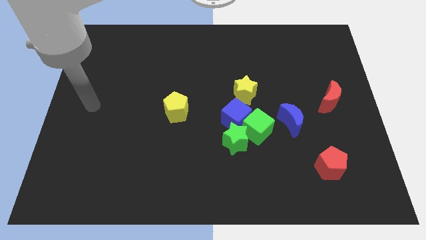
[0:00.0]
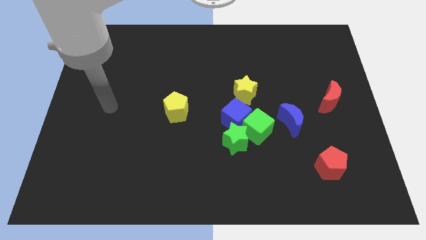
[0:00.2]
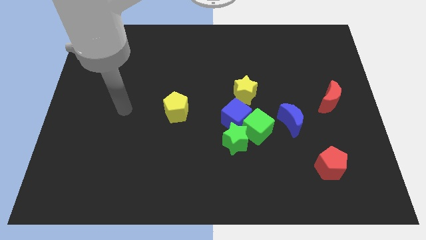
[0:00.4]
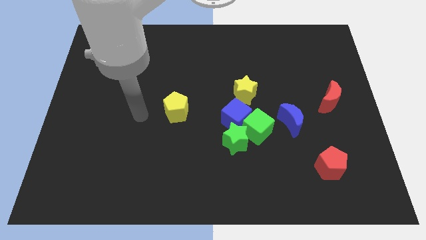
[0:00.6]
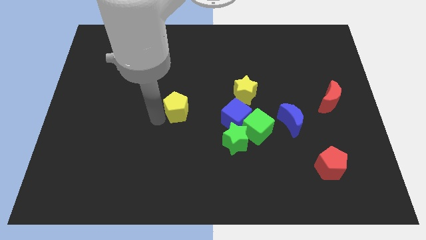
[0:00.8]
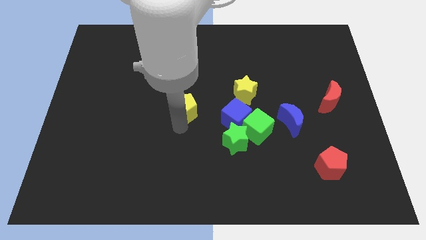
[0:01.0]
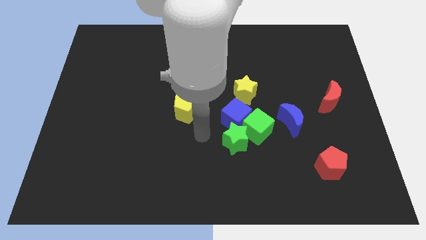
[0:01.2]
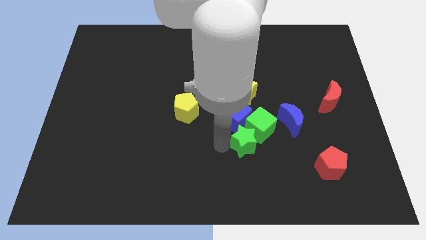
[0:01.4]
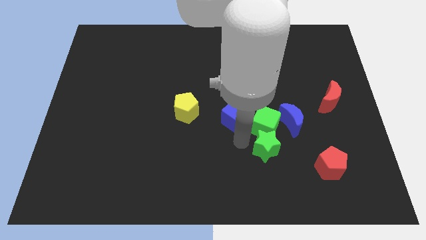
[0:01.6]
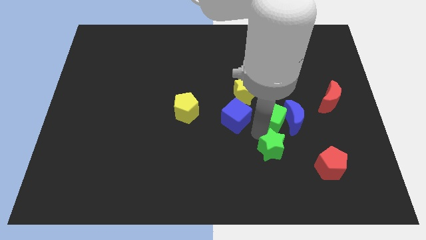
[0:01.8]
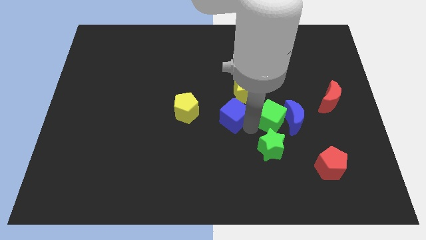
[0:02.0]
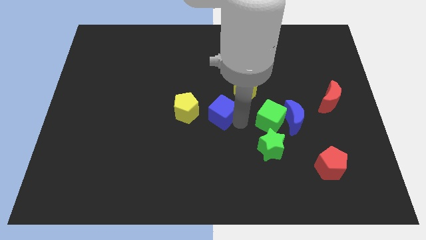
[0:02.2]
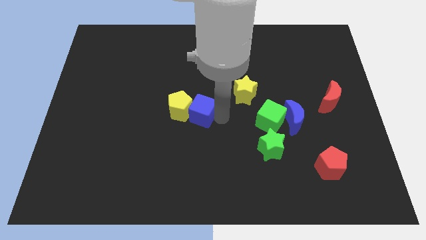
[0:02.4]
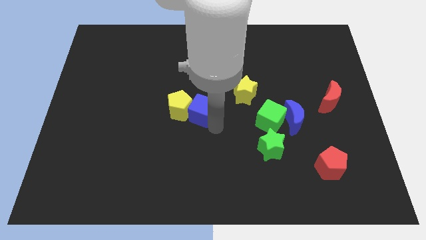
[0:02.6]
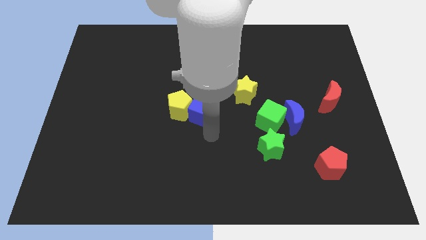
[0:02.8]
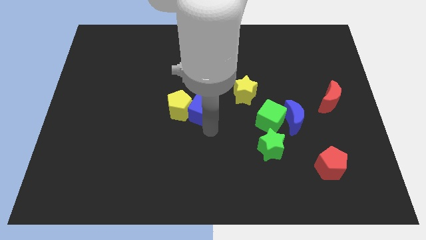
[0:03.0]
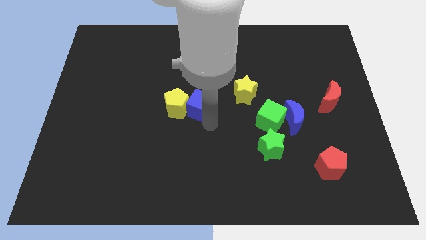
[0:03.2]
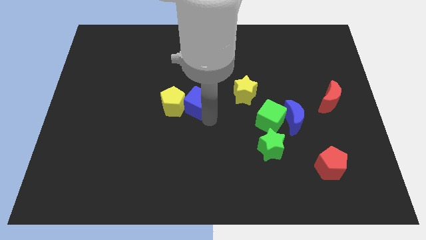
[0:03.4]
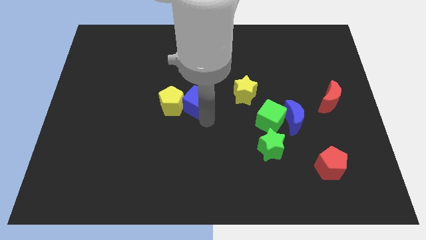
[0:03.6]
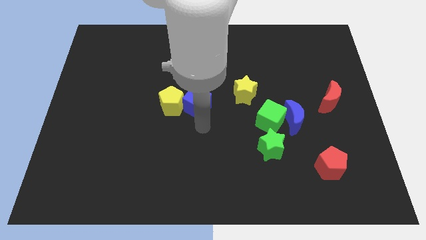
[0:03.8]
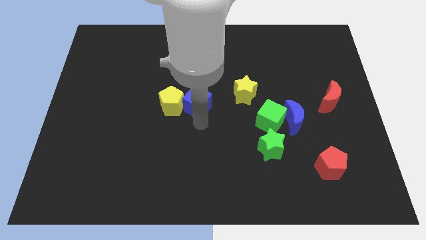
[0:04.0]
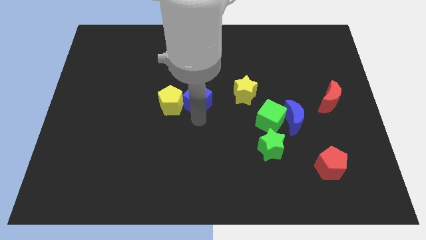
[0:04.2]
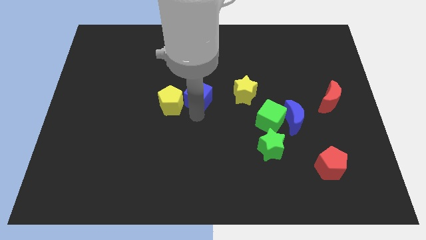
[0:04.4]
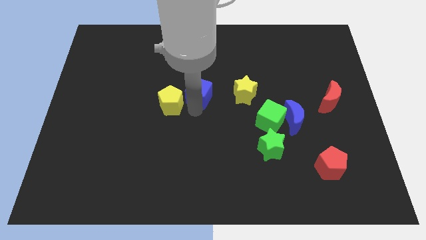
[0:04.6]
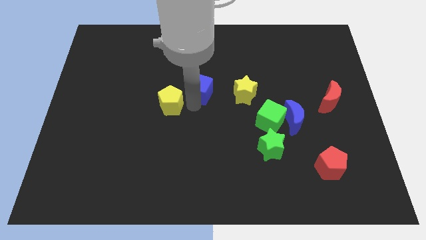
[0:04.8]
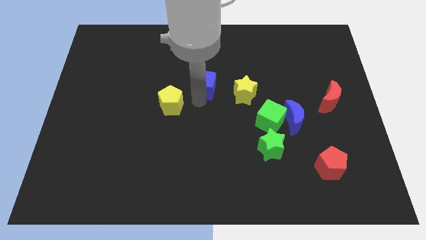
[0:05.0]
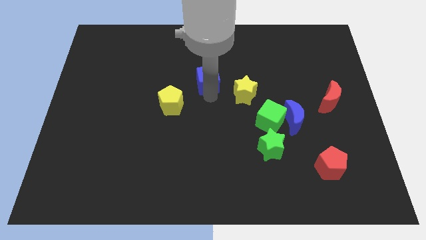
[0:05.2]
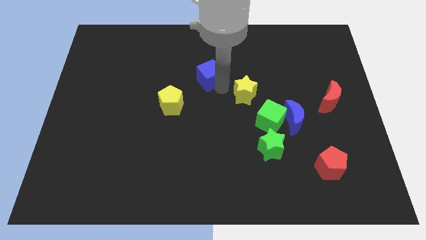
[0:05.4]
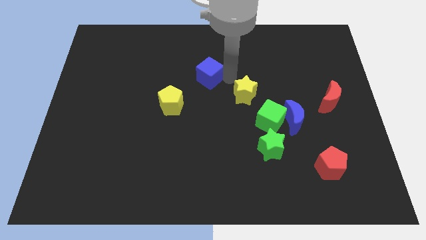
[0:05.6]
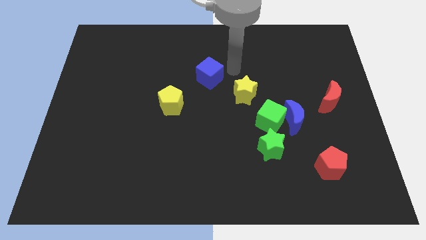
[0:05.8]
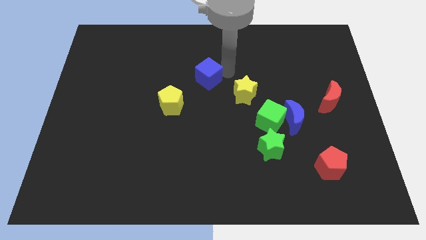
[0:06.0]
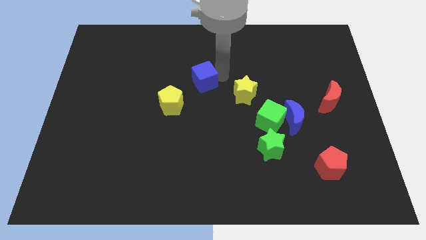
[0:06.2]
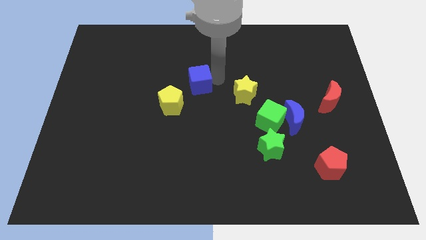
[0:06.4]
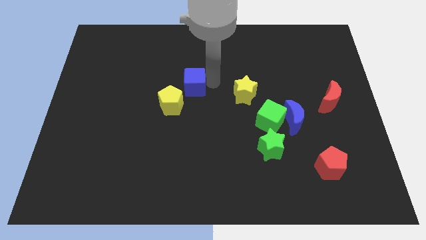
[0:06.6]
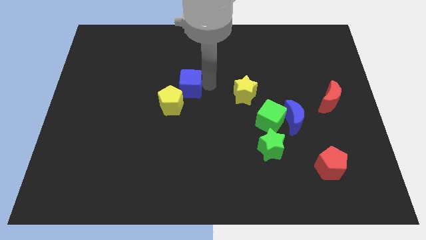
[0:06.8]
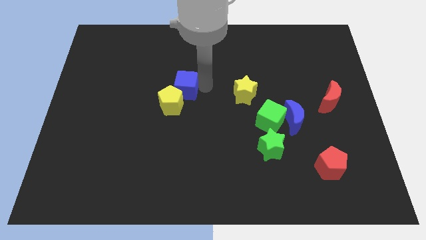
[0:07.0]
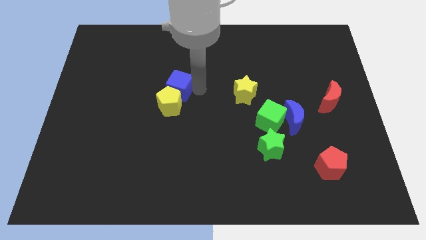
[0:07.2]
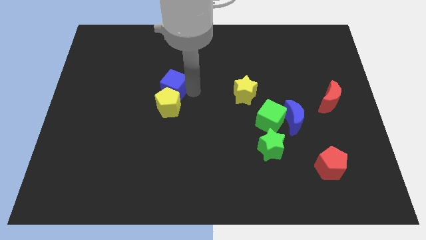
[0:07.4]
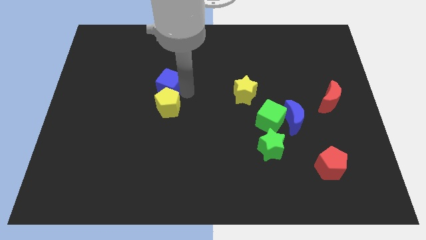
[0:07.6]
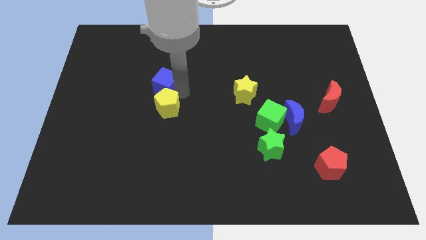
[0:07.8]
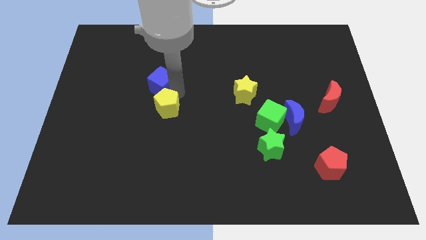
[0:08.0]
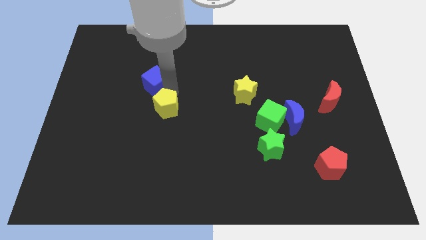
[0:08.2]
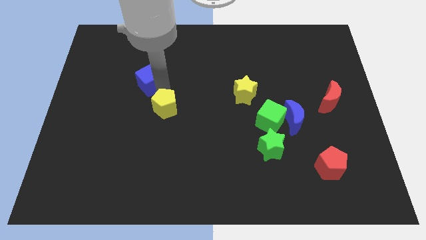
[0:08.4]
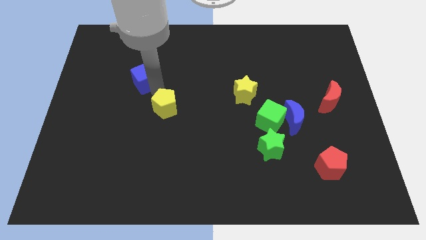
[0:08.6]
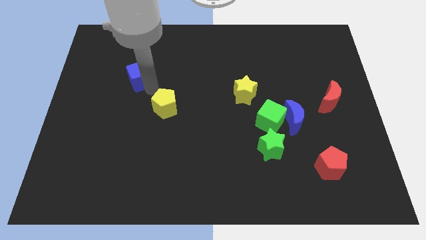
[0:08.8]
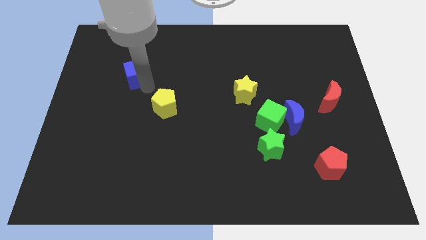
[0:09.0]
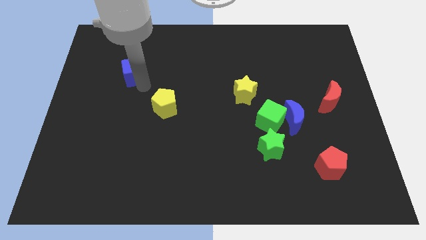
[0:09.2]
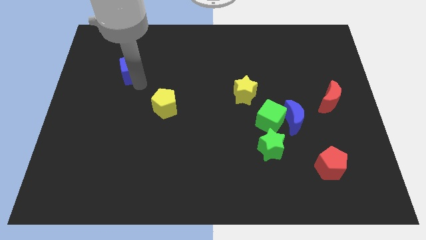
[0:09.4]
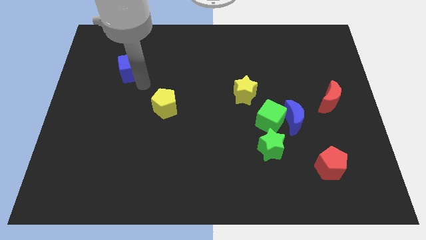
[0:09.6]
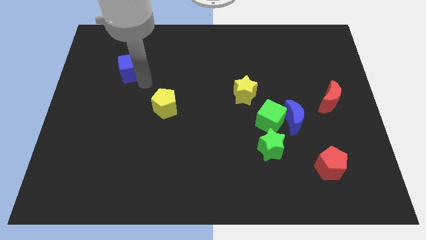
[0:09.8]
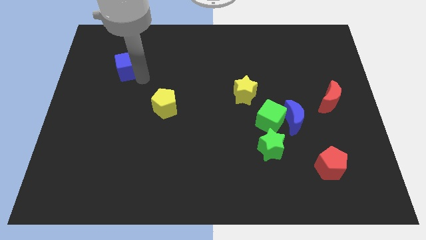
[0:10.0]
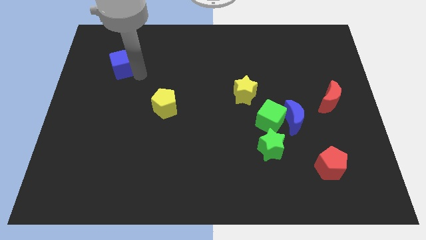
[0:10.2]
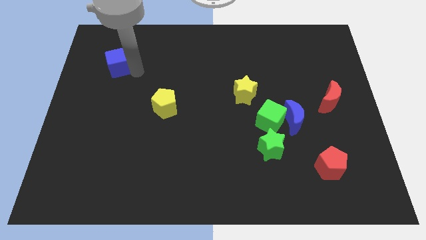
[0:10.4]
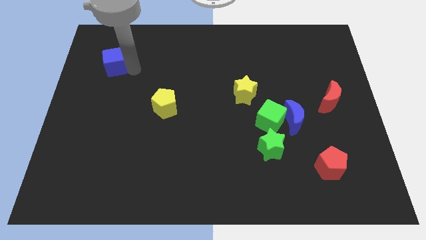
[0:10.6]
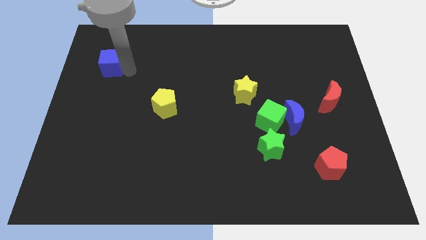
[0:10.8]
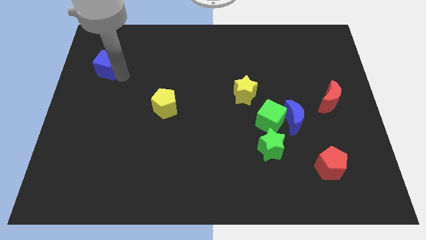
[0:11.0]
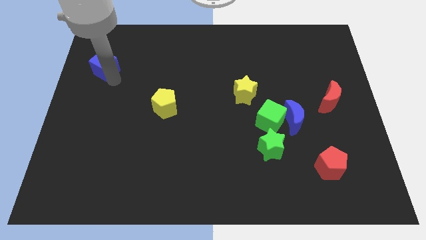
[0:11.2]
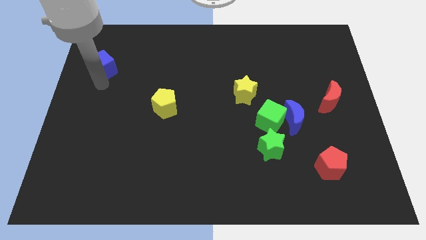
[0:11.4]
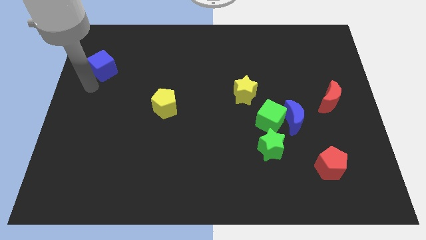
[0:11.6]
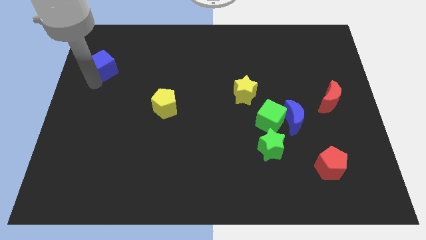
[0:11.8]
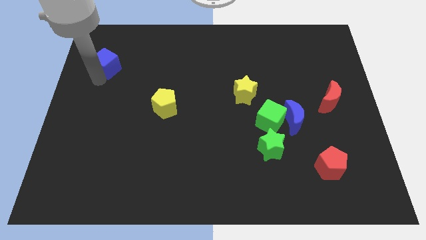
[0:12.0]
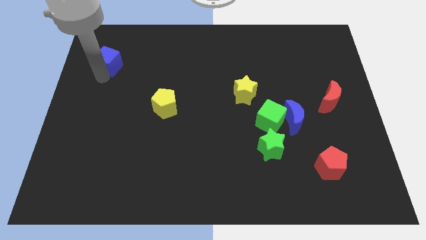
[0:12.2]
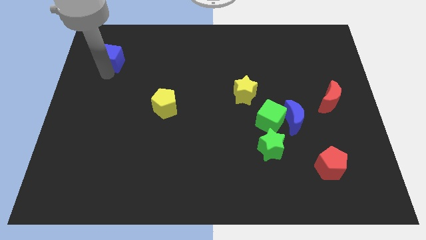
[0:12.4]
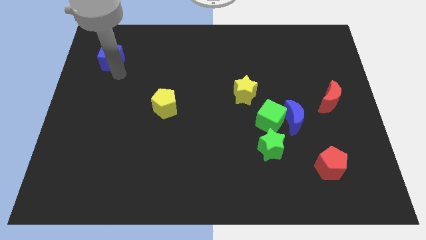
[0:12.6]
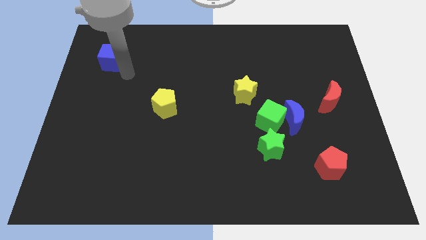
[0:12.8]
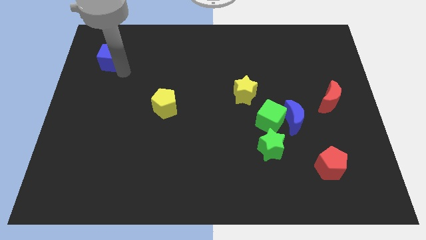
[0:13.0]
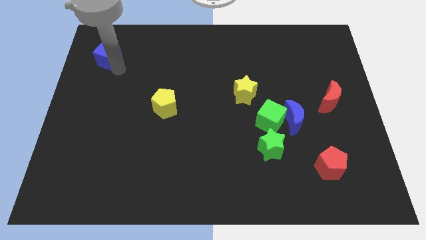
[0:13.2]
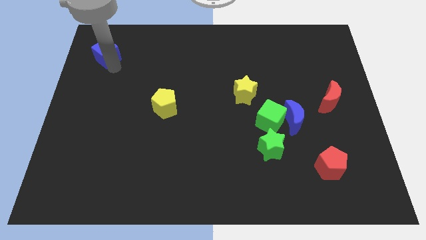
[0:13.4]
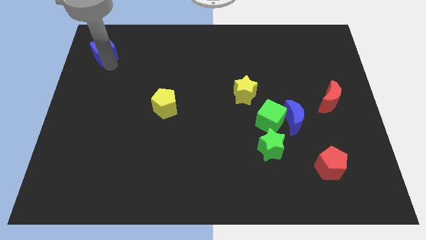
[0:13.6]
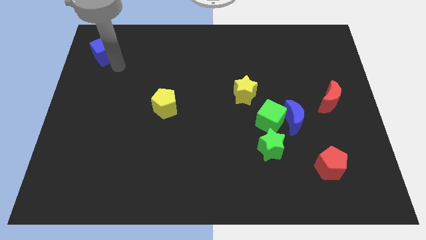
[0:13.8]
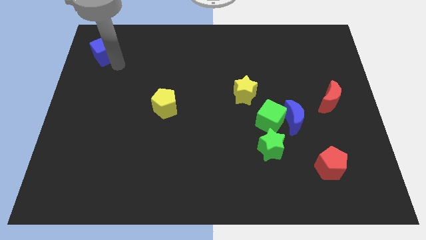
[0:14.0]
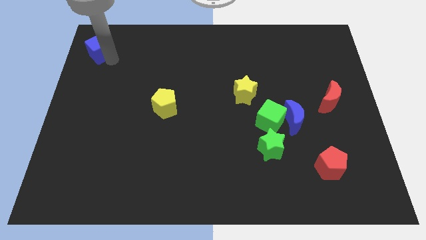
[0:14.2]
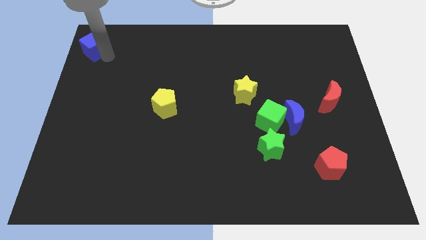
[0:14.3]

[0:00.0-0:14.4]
move the blue cube to the top left of the board
